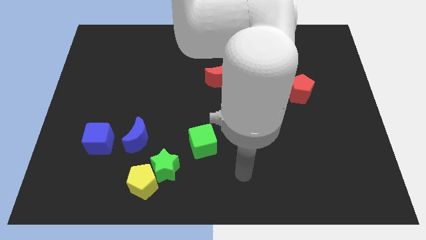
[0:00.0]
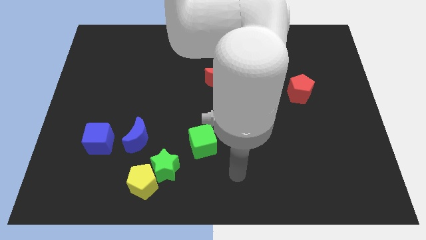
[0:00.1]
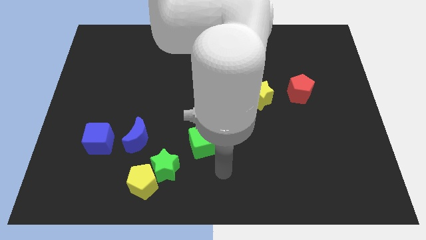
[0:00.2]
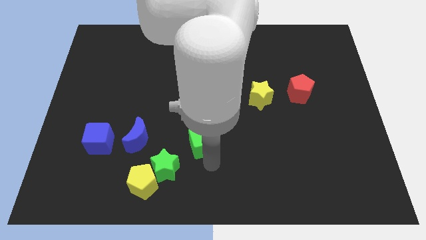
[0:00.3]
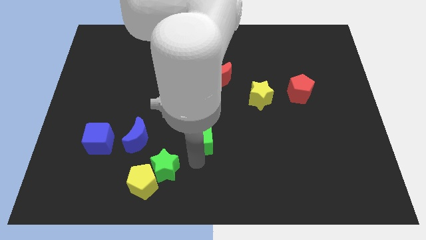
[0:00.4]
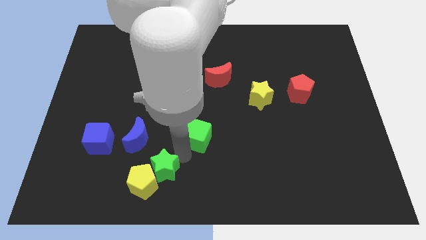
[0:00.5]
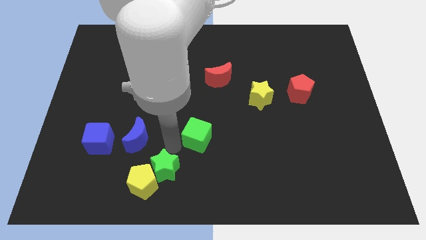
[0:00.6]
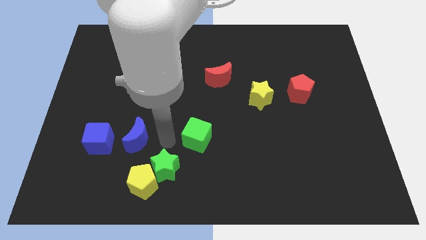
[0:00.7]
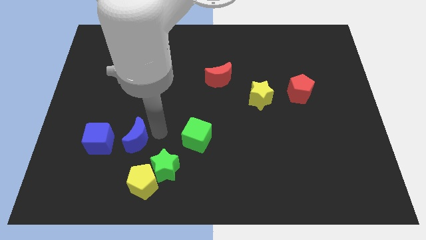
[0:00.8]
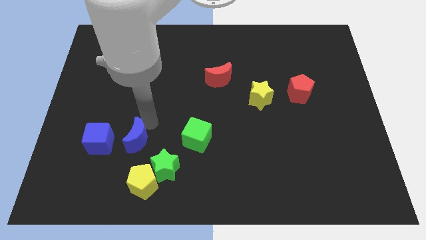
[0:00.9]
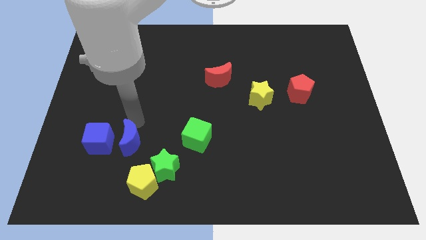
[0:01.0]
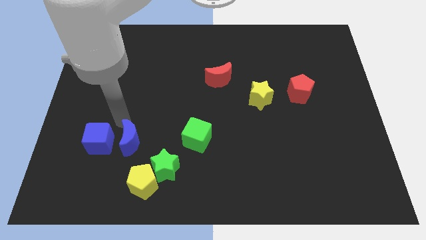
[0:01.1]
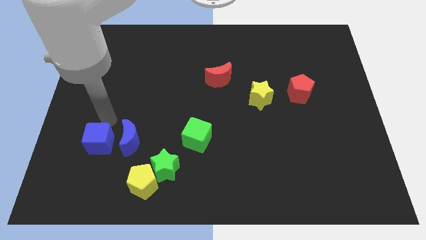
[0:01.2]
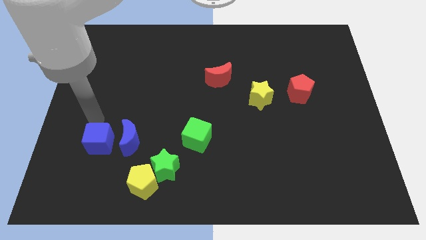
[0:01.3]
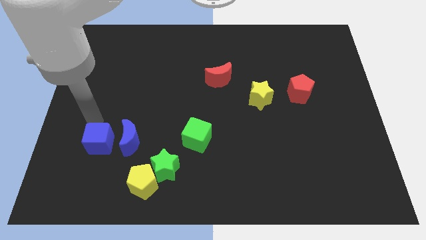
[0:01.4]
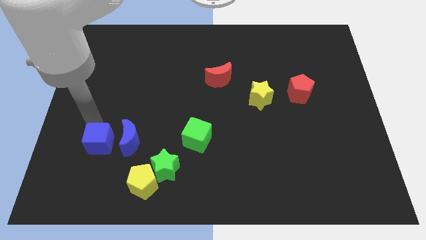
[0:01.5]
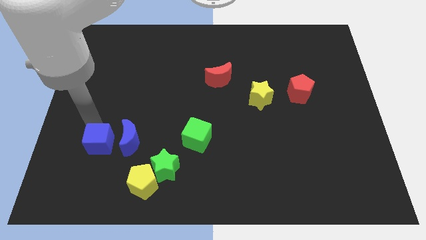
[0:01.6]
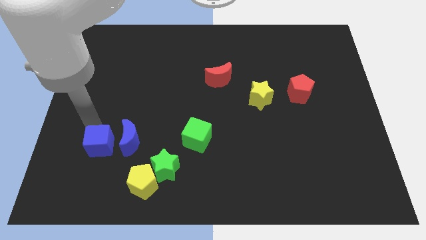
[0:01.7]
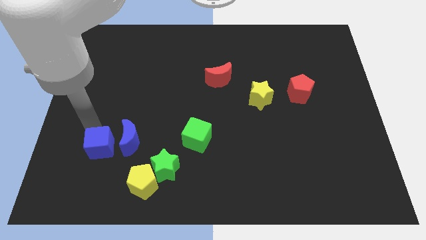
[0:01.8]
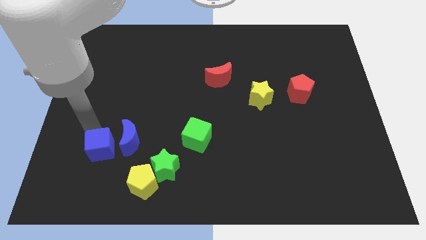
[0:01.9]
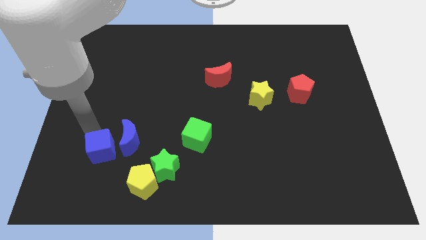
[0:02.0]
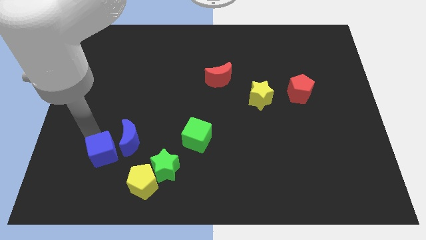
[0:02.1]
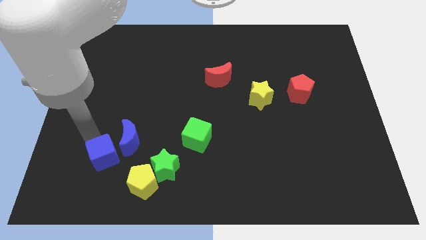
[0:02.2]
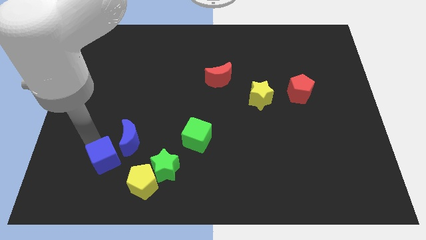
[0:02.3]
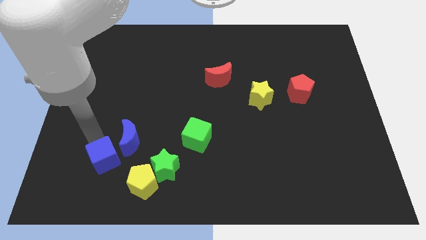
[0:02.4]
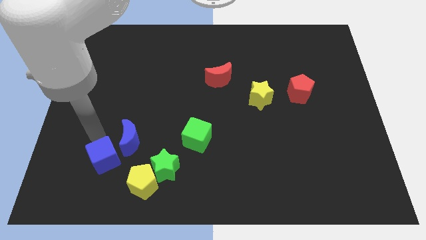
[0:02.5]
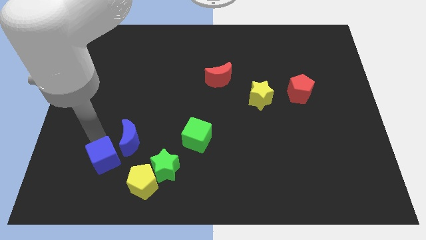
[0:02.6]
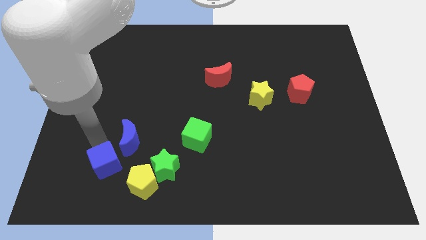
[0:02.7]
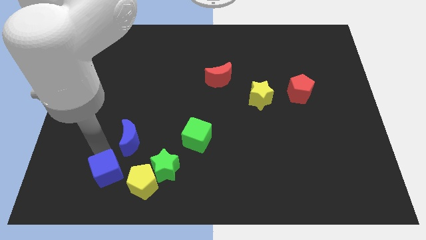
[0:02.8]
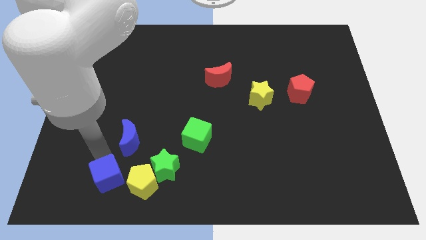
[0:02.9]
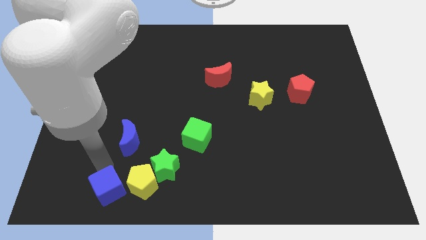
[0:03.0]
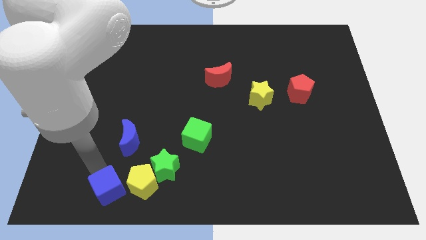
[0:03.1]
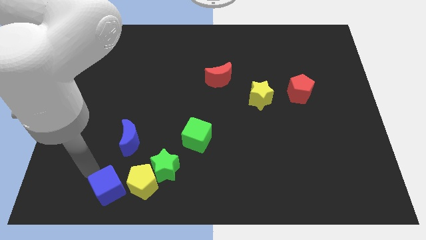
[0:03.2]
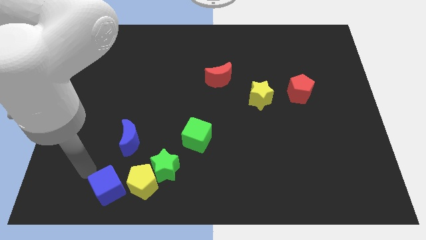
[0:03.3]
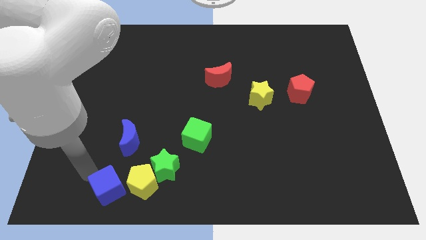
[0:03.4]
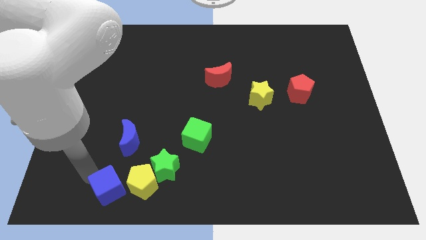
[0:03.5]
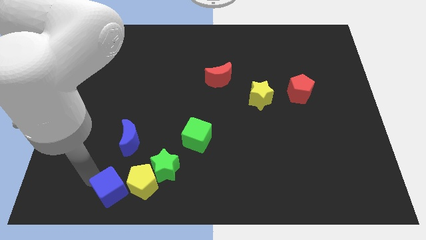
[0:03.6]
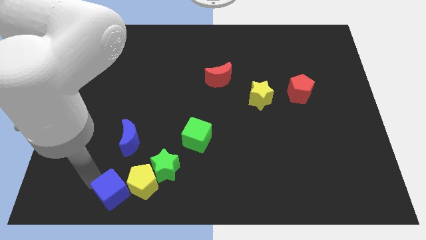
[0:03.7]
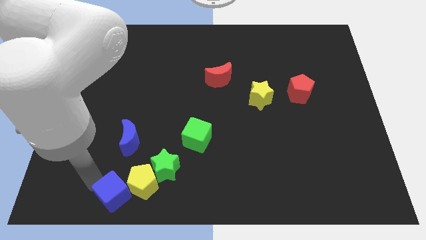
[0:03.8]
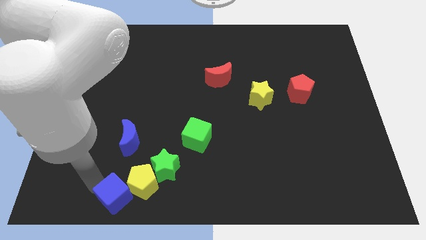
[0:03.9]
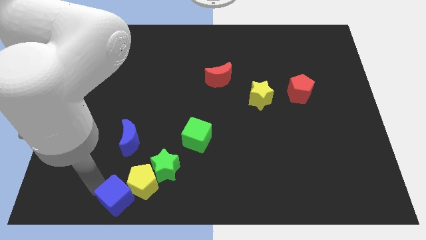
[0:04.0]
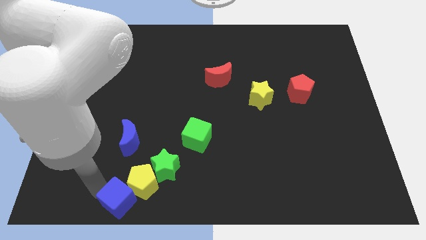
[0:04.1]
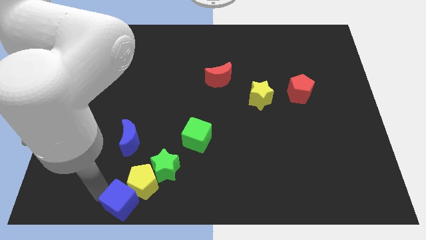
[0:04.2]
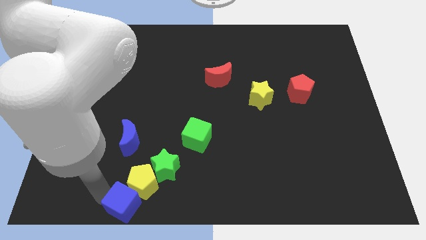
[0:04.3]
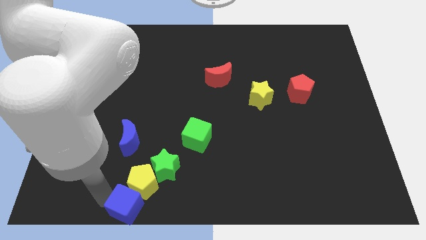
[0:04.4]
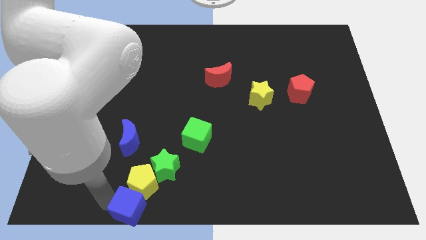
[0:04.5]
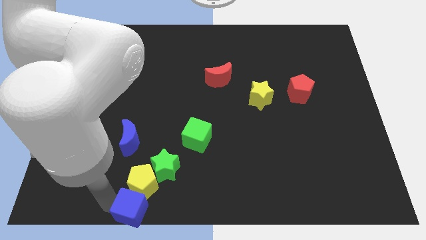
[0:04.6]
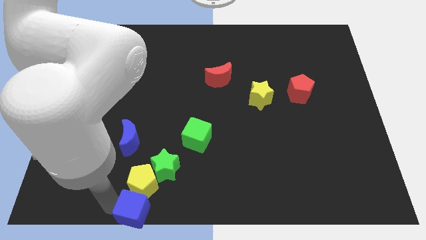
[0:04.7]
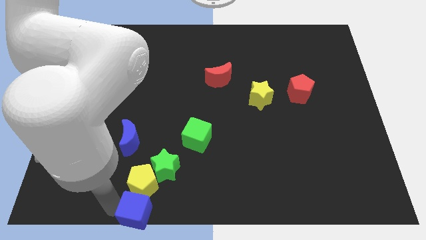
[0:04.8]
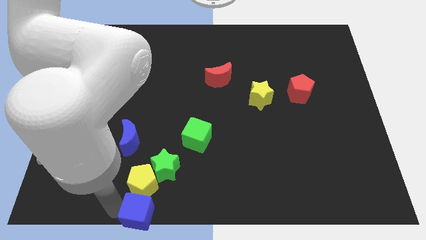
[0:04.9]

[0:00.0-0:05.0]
put the blue cube to the bottom side

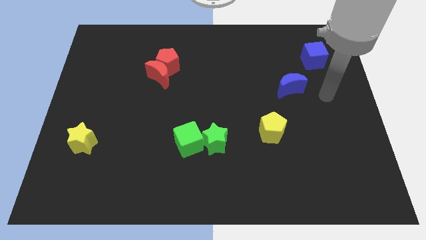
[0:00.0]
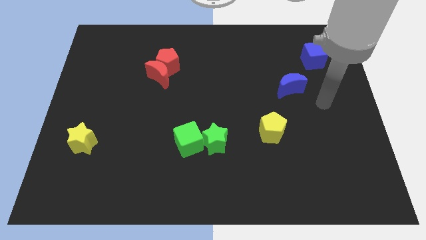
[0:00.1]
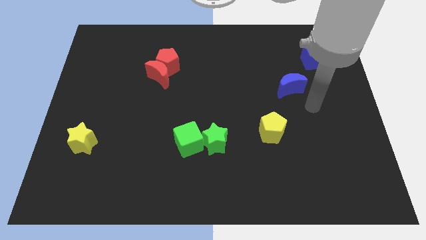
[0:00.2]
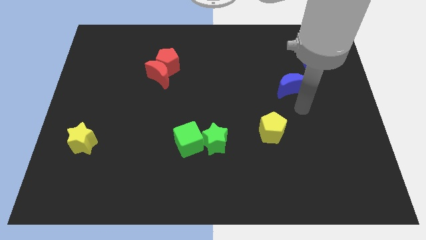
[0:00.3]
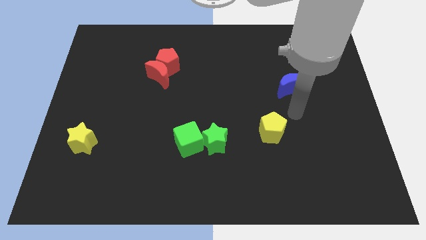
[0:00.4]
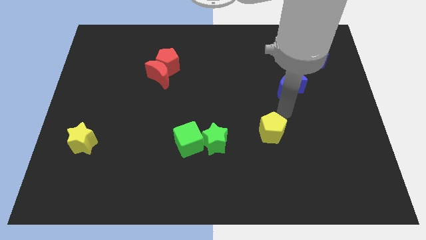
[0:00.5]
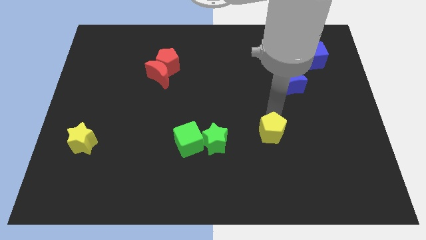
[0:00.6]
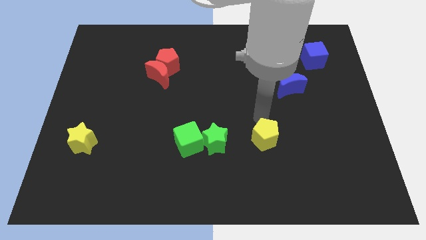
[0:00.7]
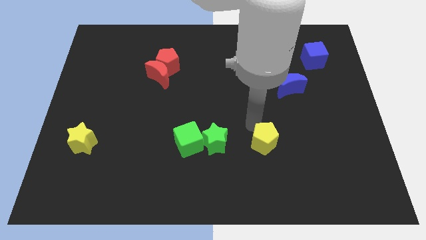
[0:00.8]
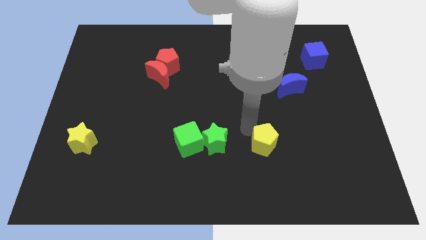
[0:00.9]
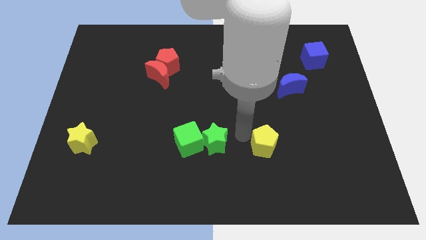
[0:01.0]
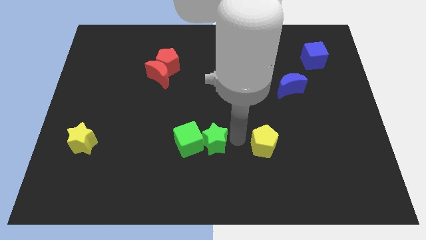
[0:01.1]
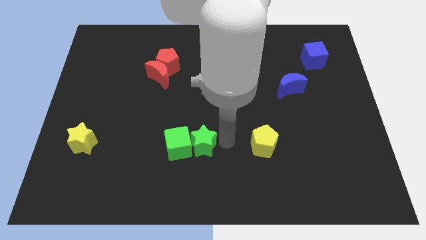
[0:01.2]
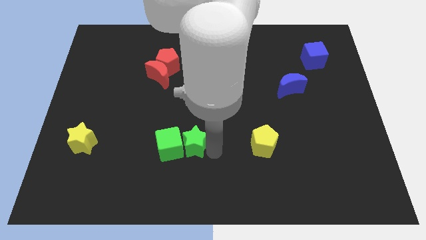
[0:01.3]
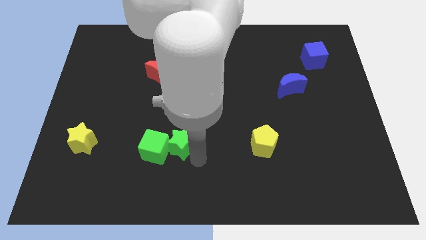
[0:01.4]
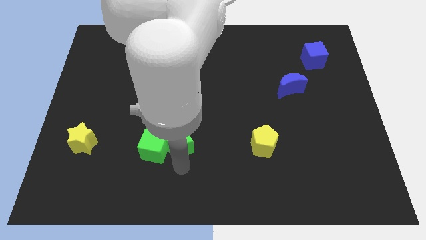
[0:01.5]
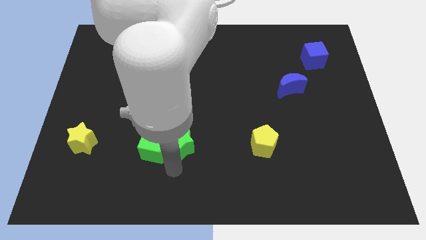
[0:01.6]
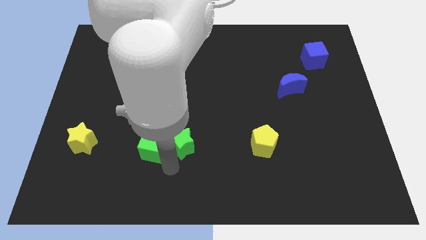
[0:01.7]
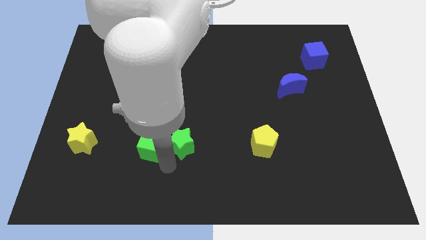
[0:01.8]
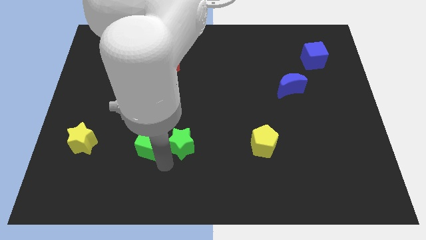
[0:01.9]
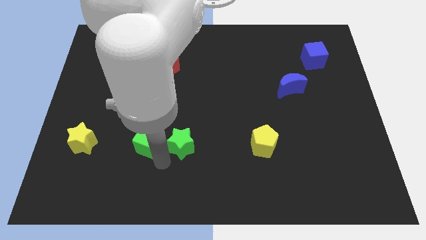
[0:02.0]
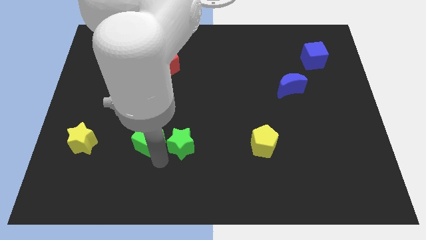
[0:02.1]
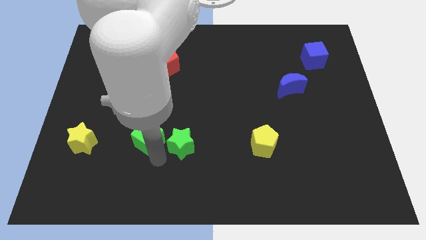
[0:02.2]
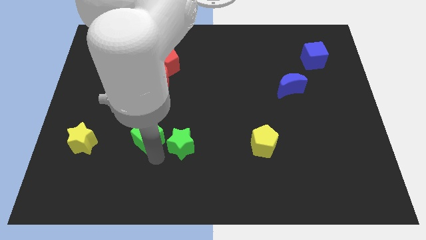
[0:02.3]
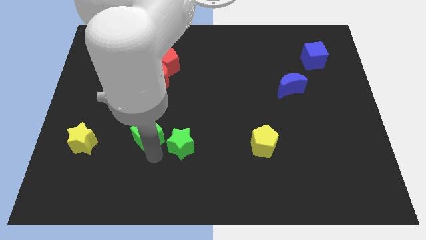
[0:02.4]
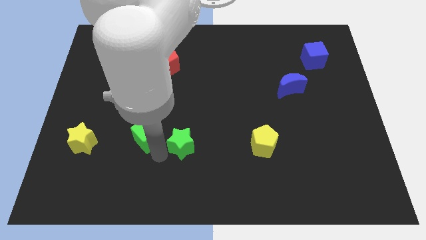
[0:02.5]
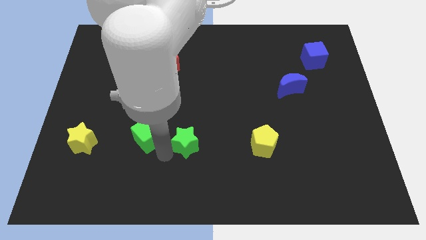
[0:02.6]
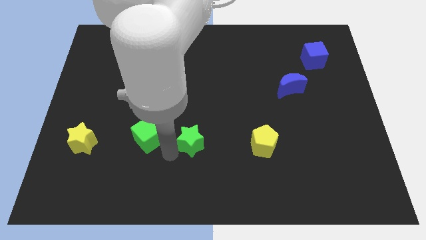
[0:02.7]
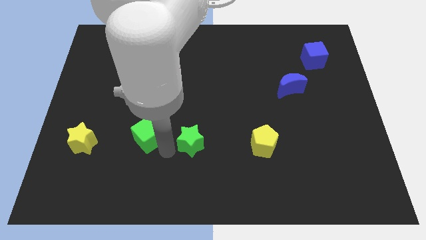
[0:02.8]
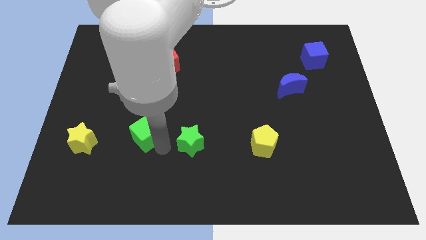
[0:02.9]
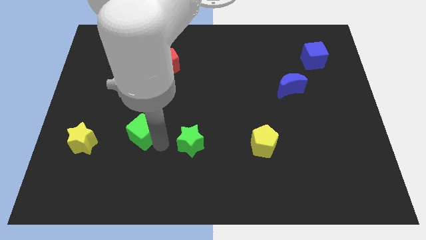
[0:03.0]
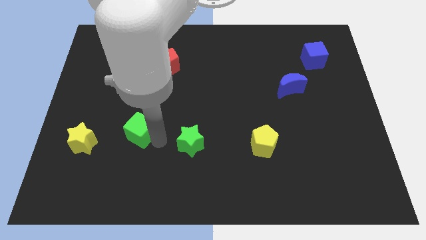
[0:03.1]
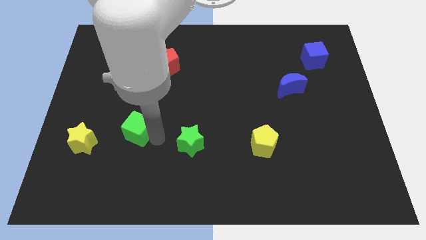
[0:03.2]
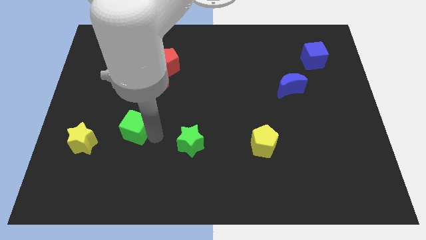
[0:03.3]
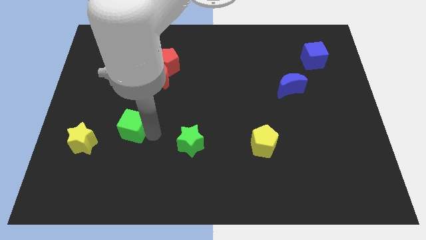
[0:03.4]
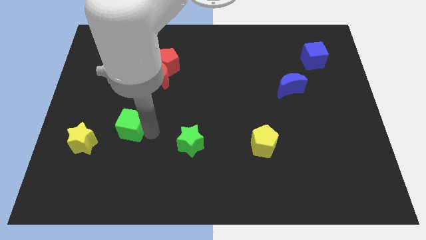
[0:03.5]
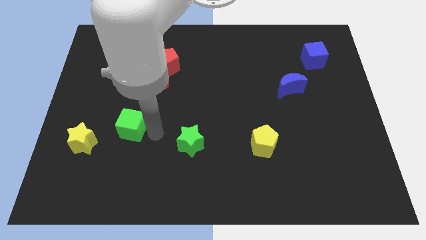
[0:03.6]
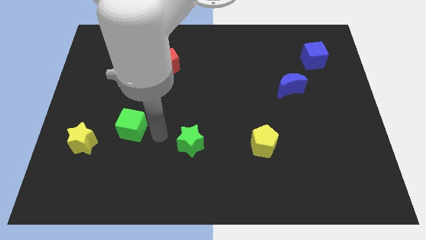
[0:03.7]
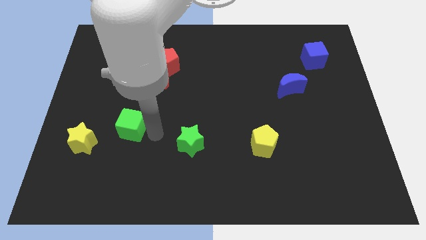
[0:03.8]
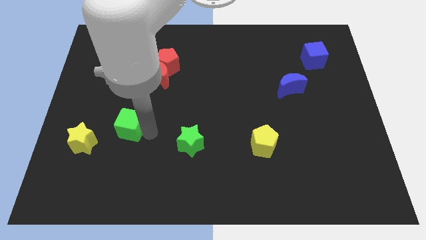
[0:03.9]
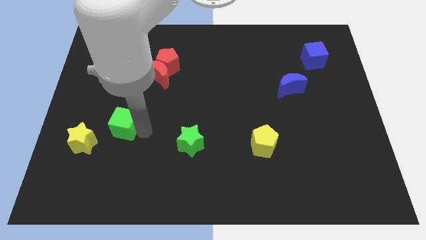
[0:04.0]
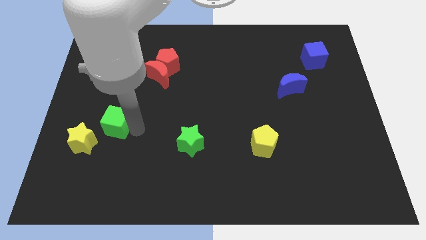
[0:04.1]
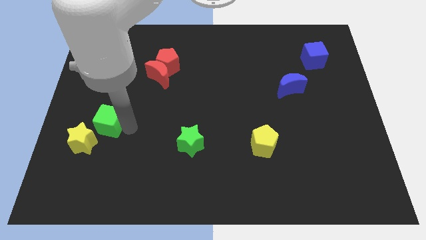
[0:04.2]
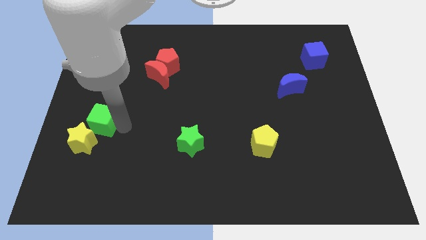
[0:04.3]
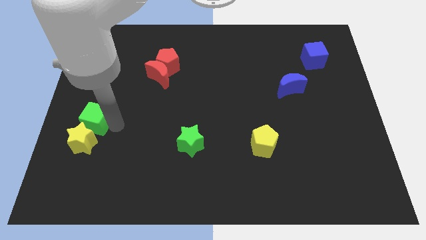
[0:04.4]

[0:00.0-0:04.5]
put the green cube to the left side
